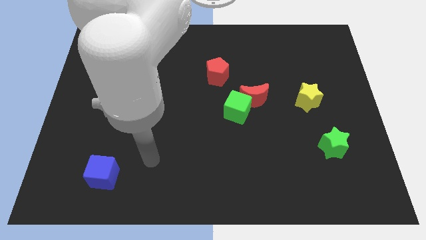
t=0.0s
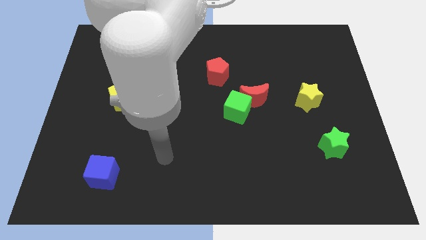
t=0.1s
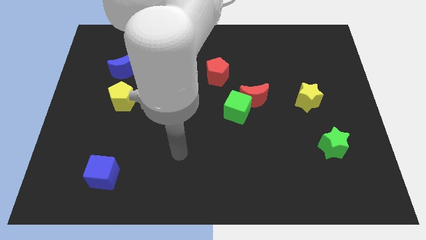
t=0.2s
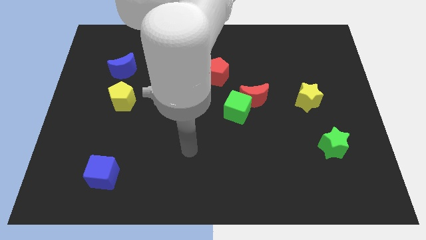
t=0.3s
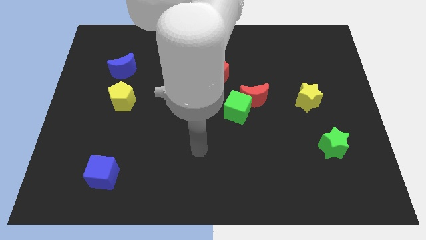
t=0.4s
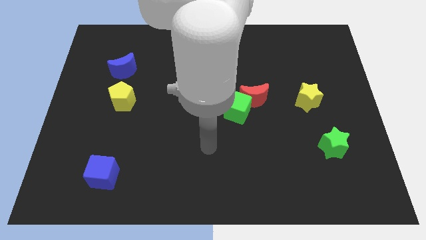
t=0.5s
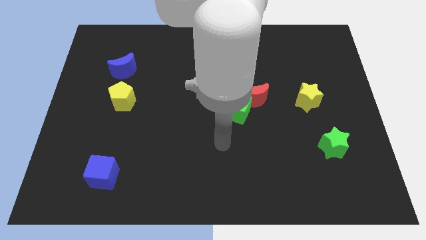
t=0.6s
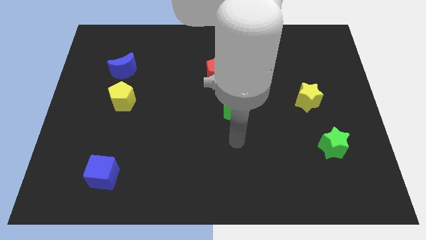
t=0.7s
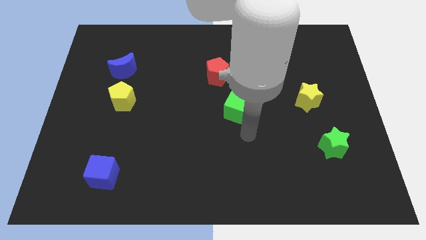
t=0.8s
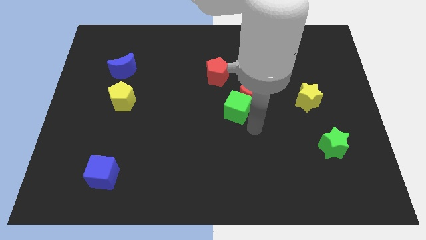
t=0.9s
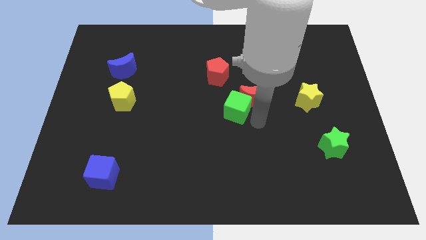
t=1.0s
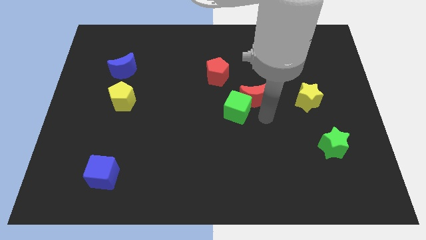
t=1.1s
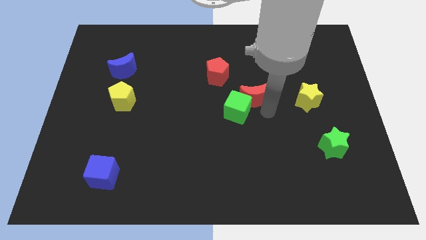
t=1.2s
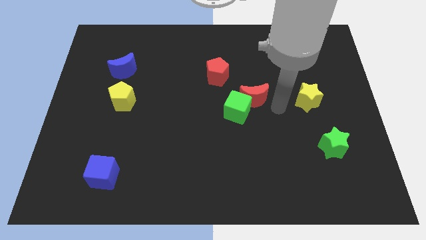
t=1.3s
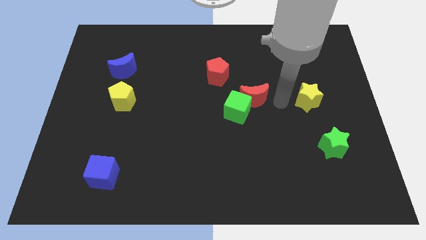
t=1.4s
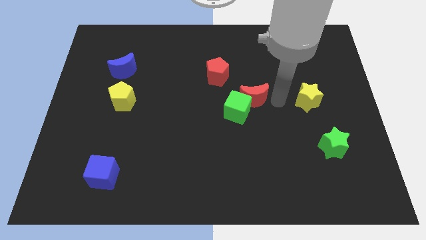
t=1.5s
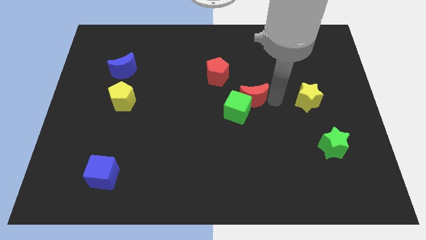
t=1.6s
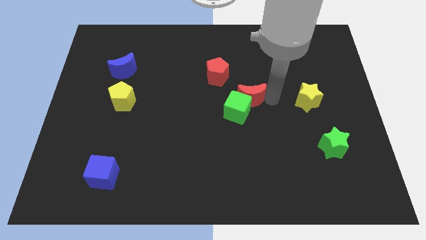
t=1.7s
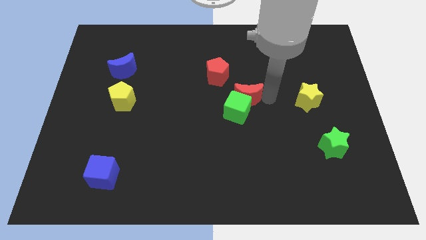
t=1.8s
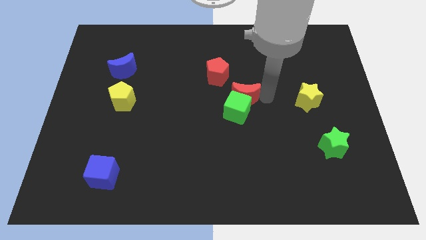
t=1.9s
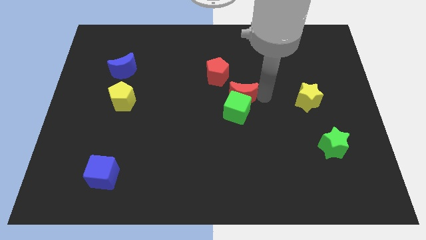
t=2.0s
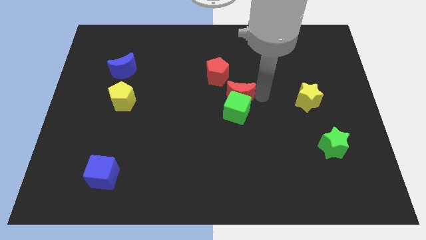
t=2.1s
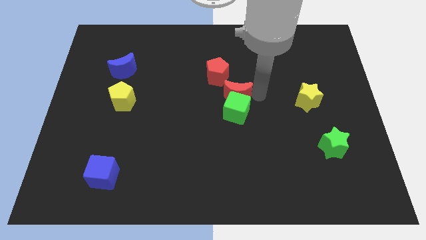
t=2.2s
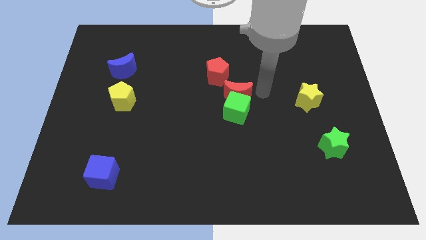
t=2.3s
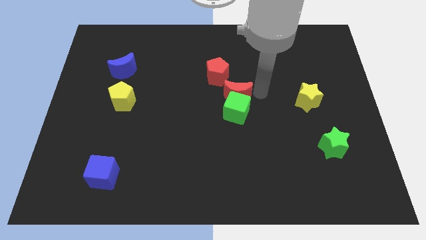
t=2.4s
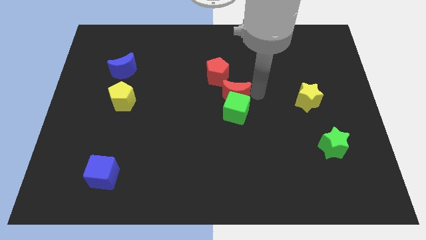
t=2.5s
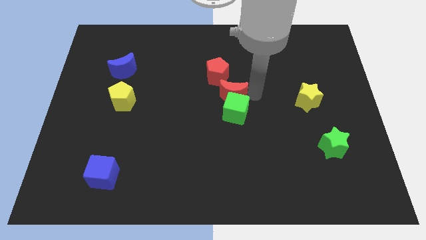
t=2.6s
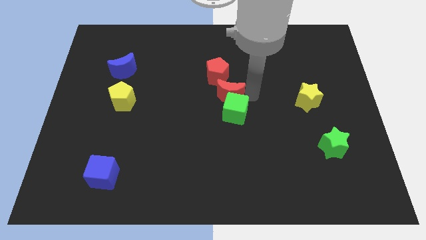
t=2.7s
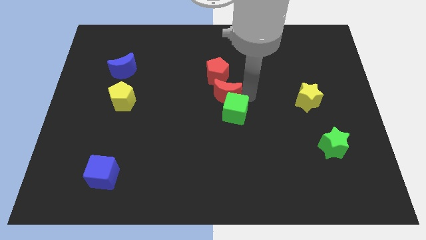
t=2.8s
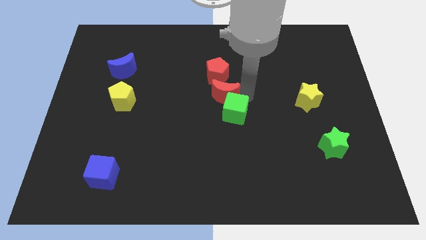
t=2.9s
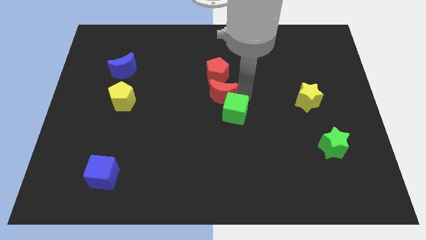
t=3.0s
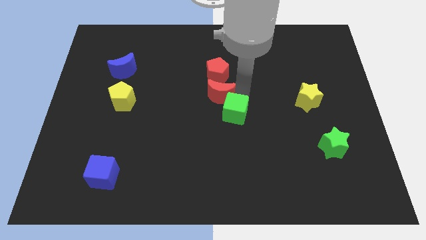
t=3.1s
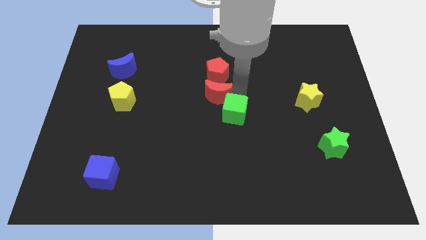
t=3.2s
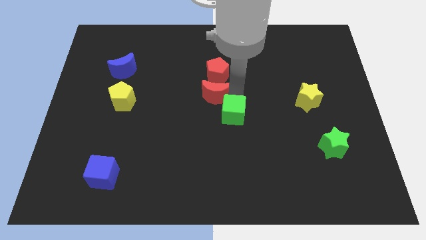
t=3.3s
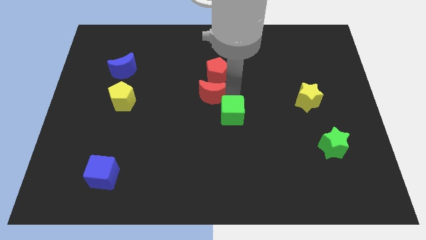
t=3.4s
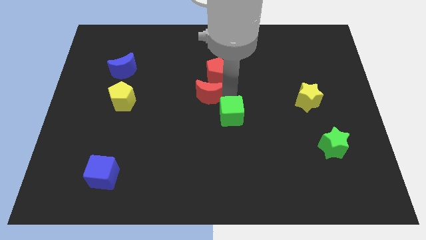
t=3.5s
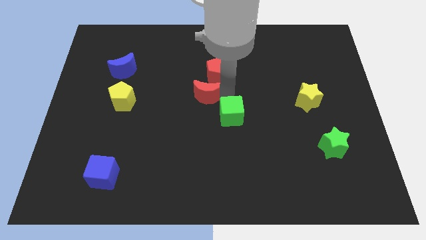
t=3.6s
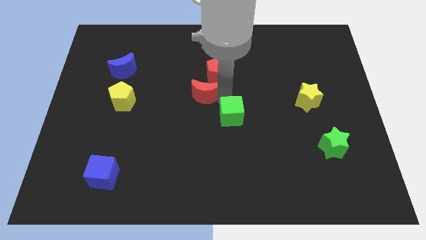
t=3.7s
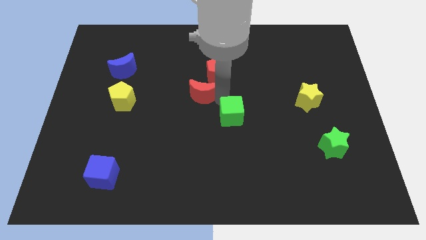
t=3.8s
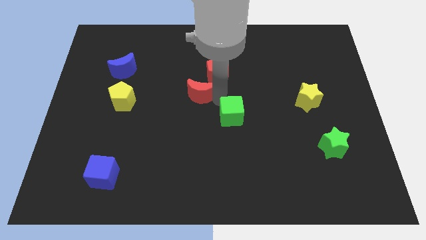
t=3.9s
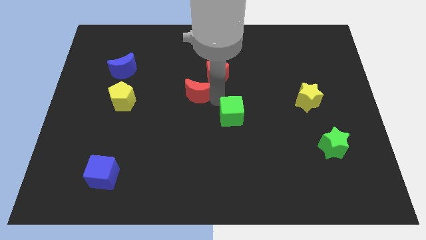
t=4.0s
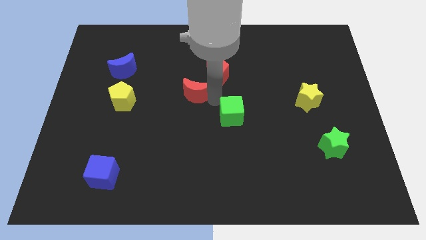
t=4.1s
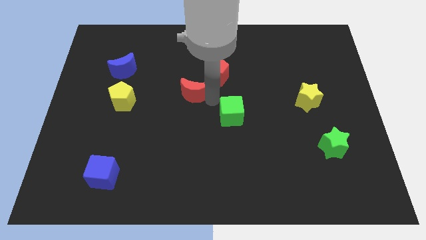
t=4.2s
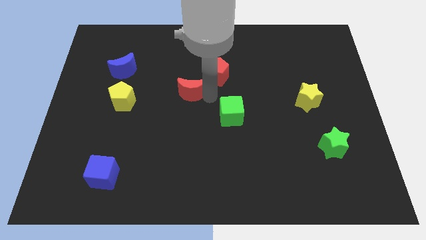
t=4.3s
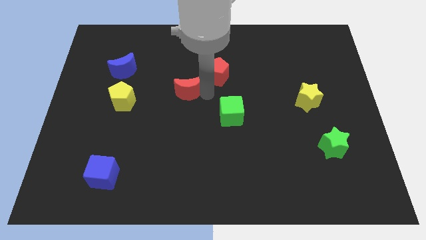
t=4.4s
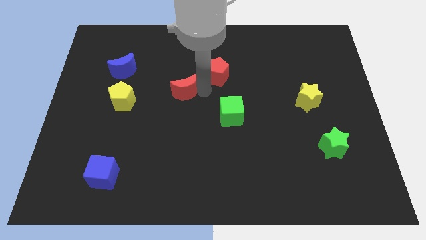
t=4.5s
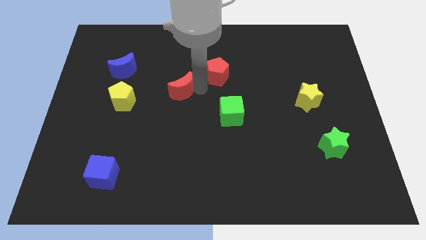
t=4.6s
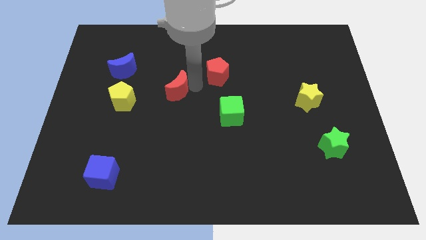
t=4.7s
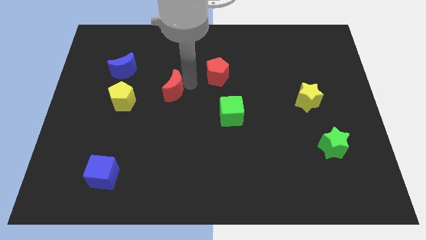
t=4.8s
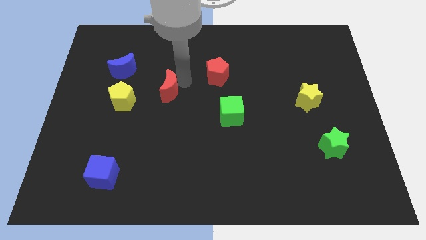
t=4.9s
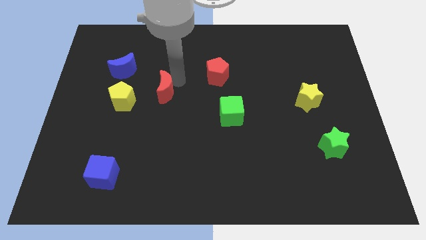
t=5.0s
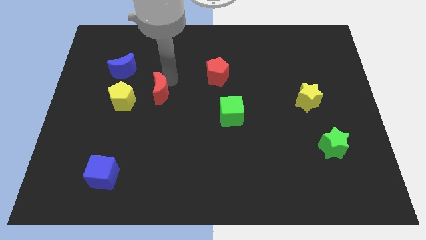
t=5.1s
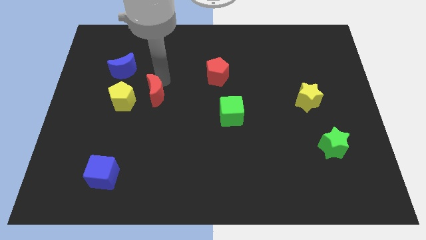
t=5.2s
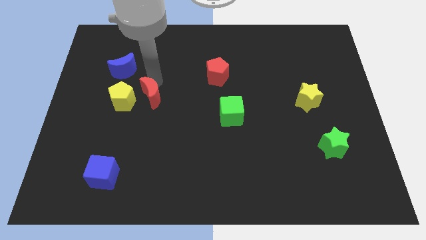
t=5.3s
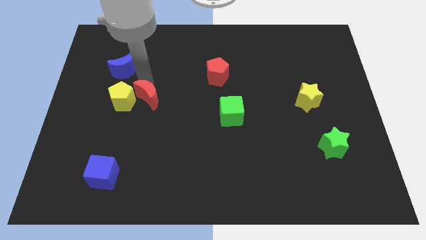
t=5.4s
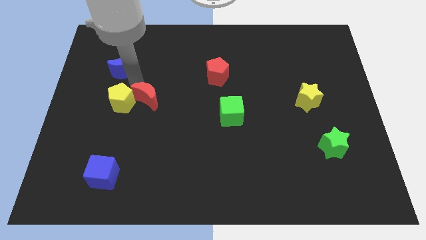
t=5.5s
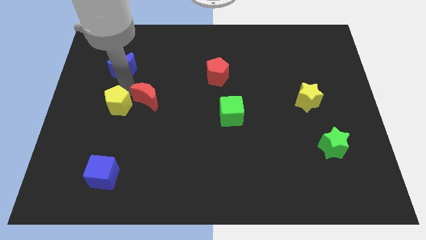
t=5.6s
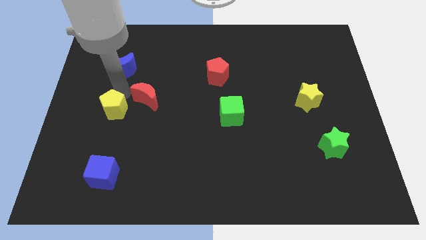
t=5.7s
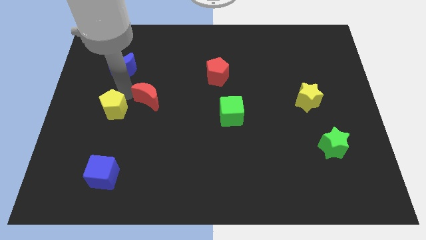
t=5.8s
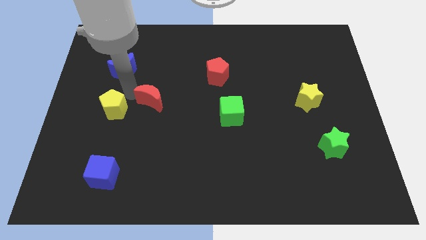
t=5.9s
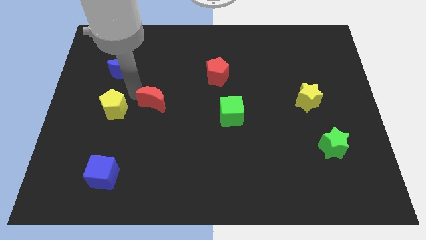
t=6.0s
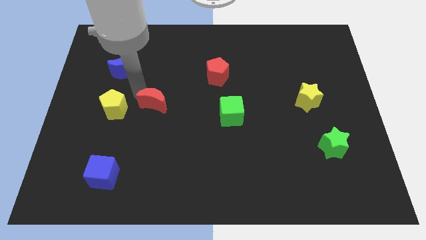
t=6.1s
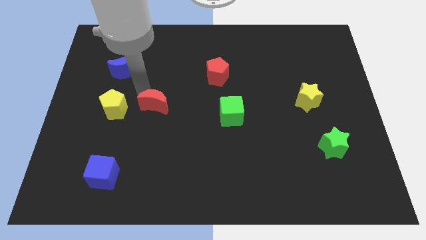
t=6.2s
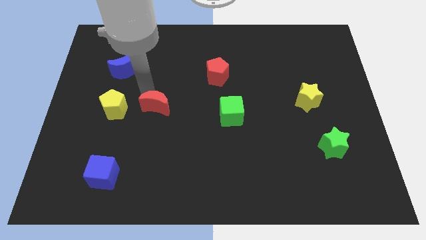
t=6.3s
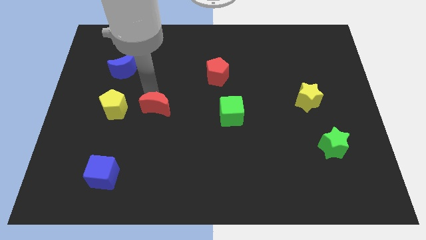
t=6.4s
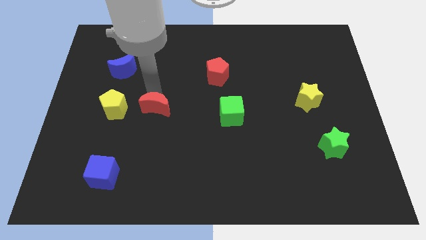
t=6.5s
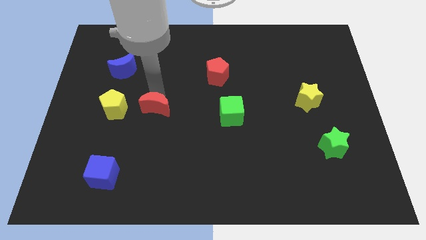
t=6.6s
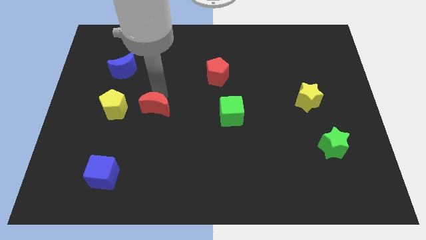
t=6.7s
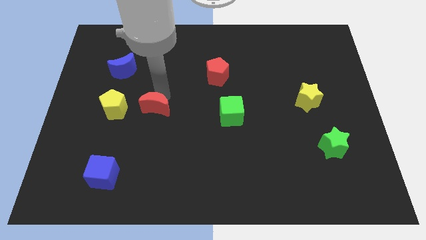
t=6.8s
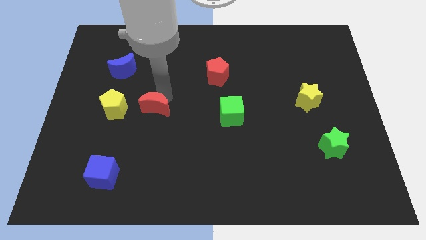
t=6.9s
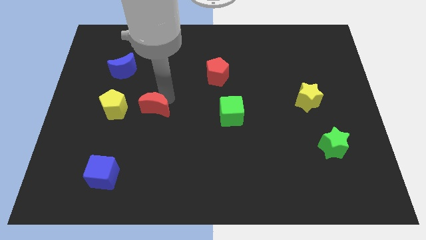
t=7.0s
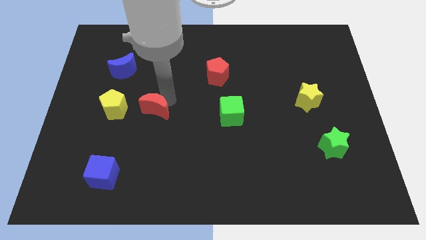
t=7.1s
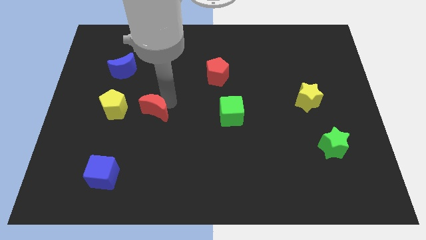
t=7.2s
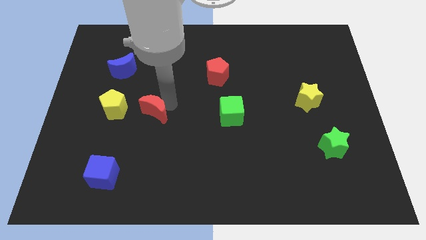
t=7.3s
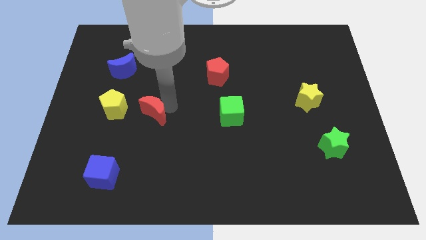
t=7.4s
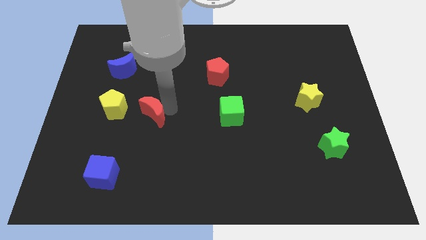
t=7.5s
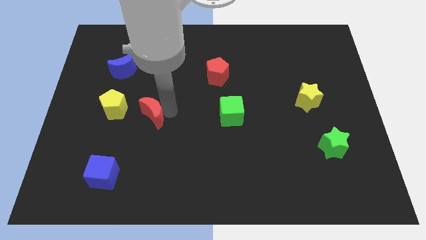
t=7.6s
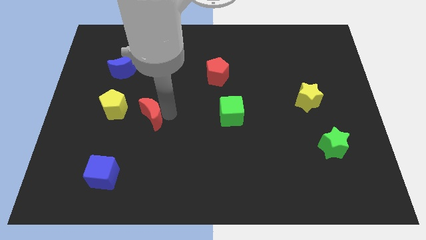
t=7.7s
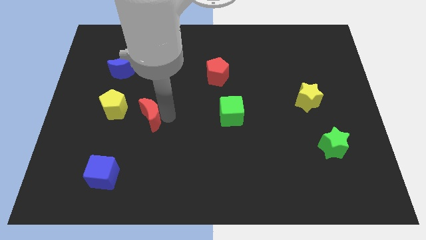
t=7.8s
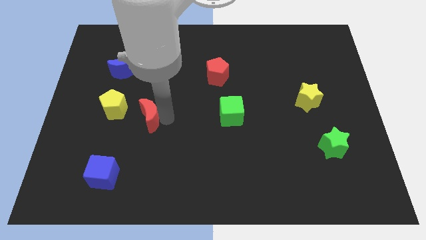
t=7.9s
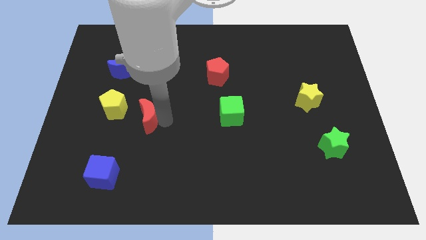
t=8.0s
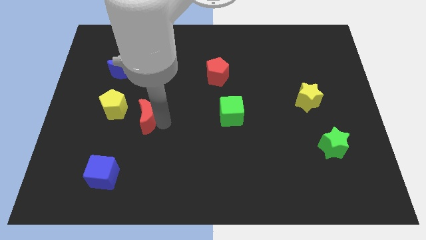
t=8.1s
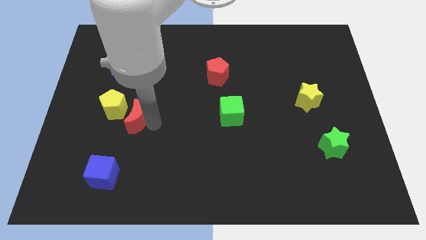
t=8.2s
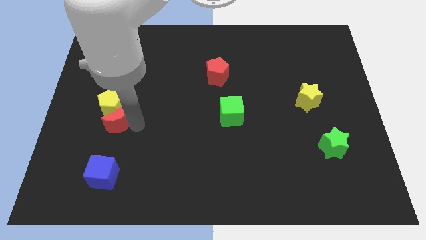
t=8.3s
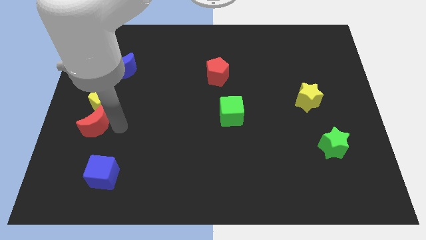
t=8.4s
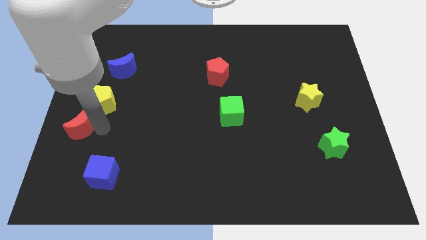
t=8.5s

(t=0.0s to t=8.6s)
slide the red moon to the center left
